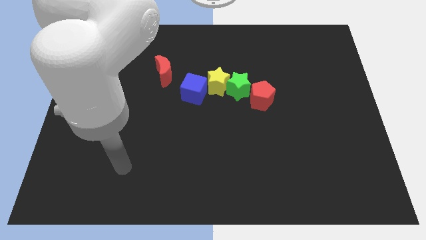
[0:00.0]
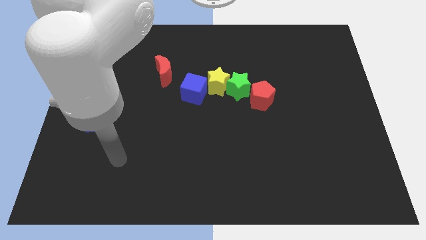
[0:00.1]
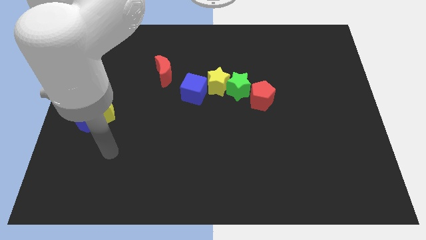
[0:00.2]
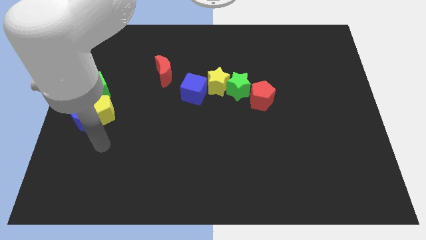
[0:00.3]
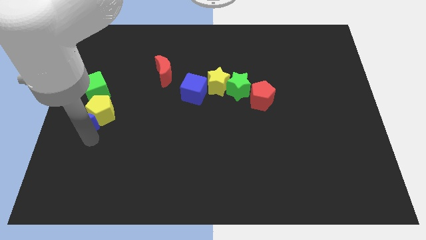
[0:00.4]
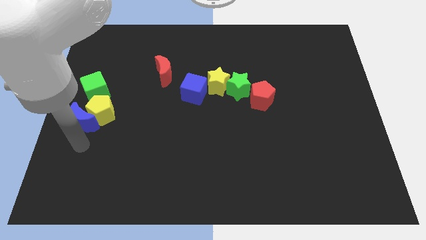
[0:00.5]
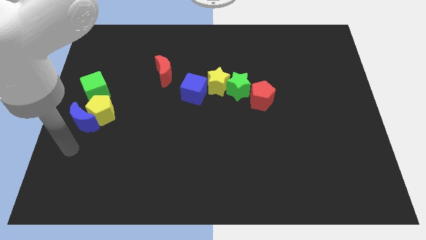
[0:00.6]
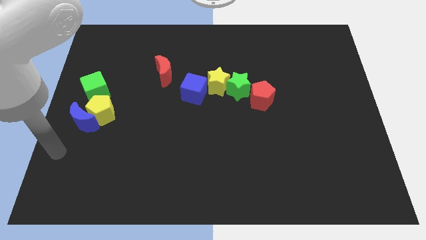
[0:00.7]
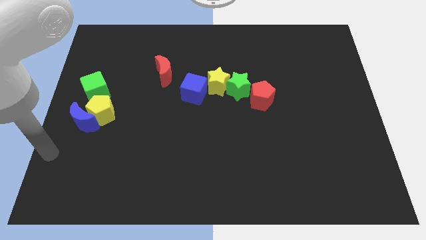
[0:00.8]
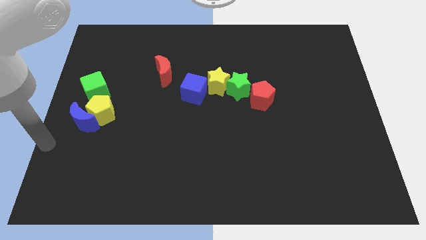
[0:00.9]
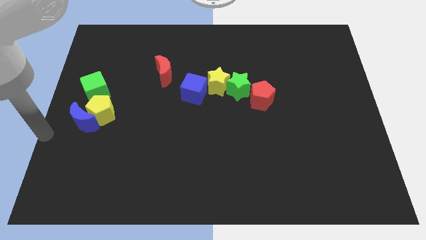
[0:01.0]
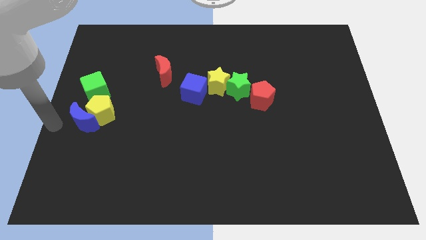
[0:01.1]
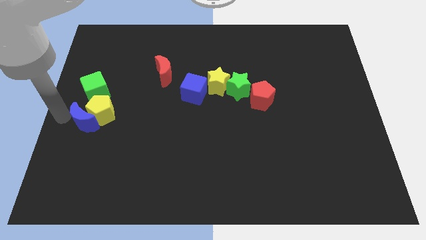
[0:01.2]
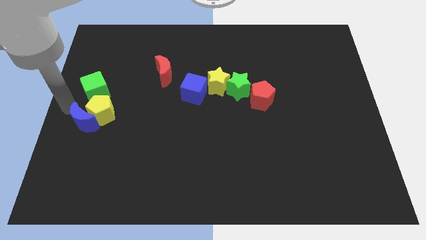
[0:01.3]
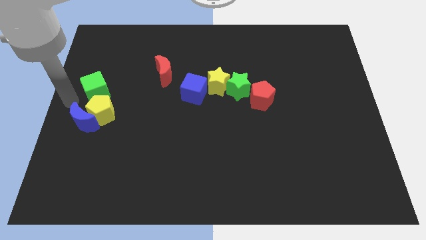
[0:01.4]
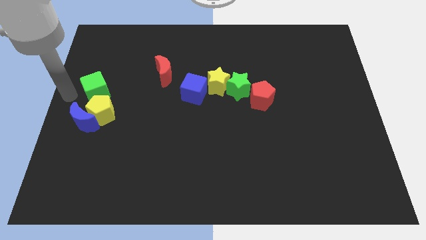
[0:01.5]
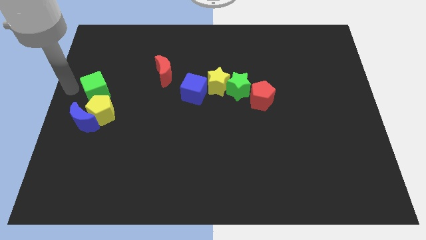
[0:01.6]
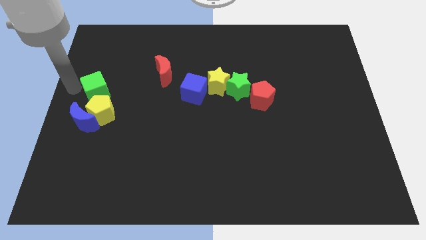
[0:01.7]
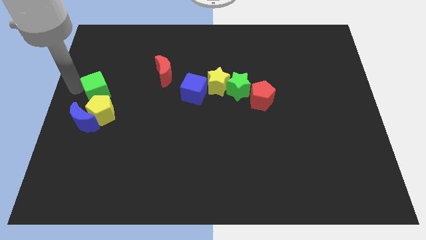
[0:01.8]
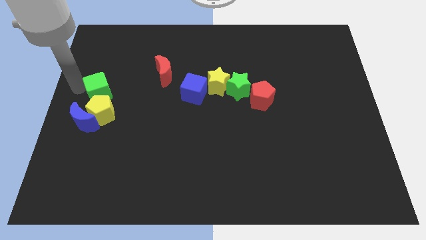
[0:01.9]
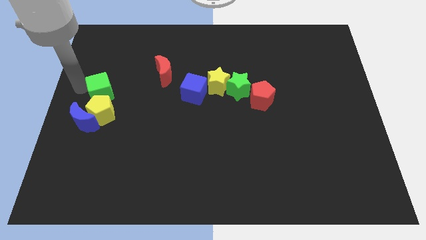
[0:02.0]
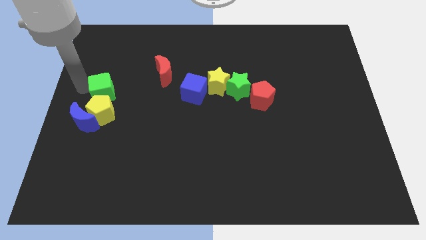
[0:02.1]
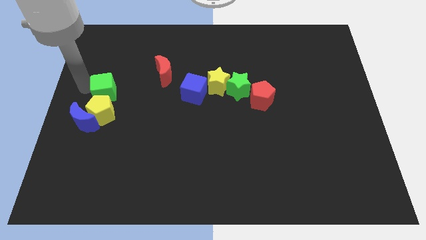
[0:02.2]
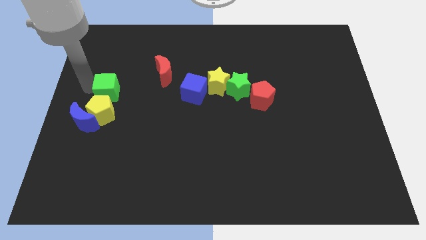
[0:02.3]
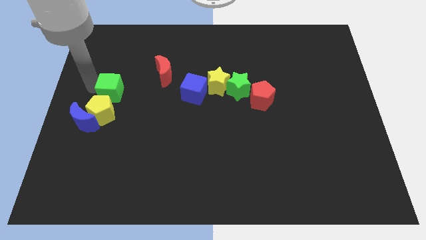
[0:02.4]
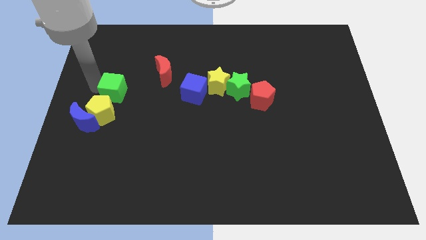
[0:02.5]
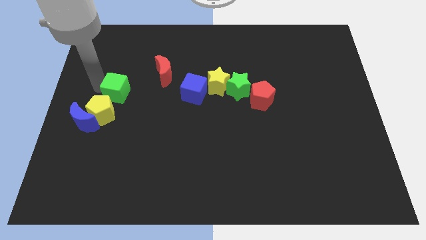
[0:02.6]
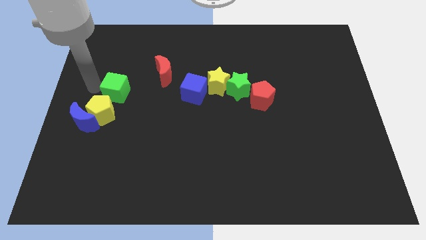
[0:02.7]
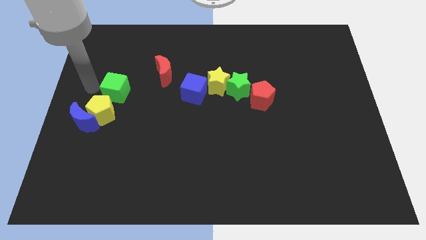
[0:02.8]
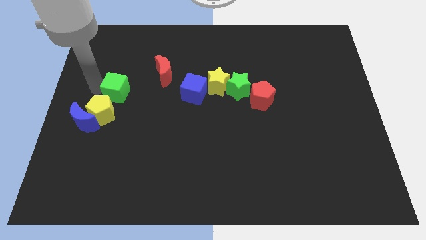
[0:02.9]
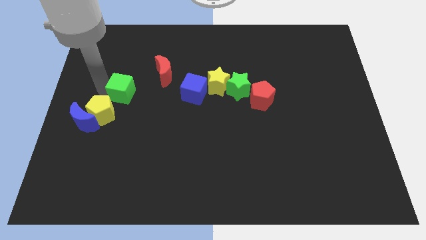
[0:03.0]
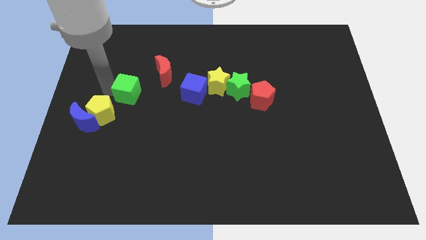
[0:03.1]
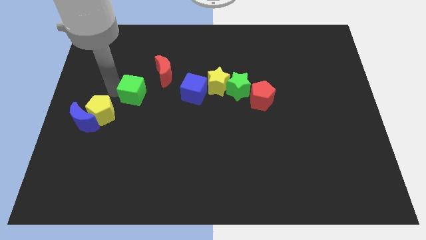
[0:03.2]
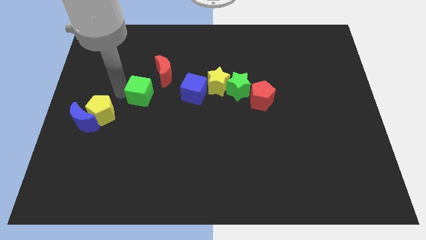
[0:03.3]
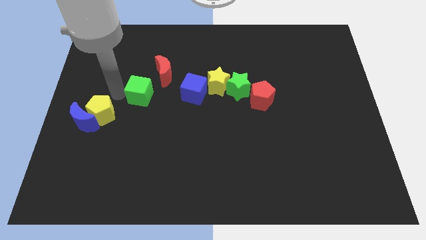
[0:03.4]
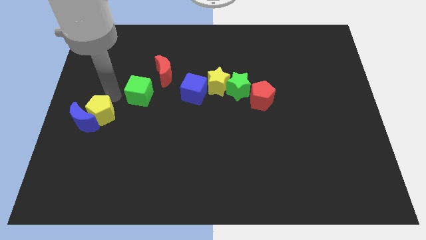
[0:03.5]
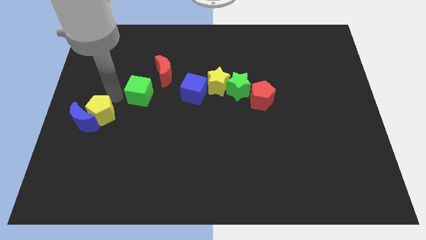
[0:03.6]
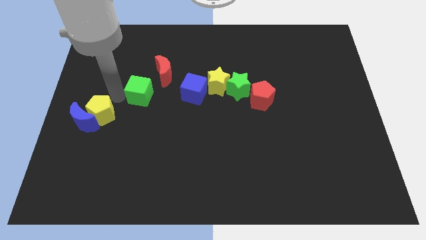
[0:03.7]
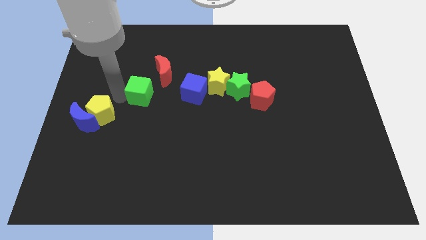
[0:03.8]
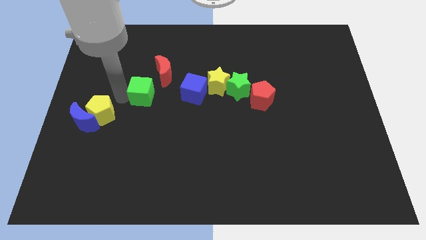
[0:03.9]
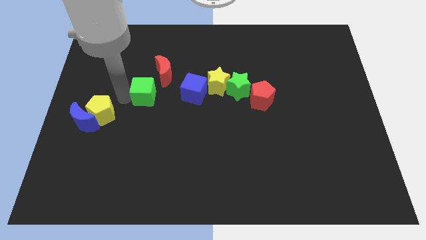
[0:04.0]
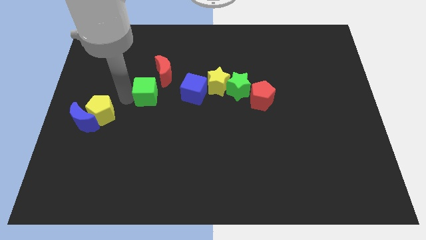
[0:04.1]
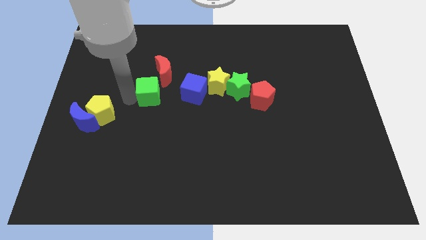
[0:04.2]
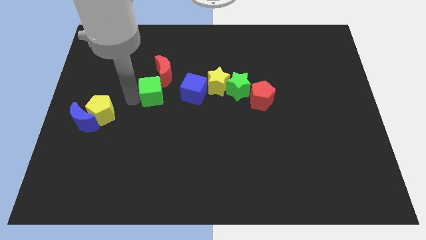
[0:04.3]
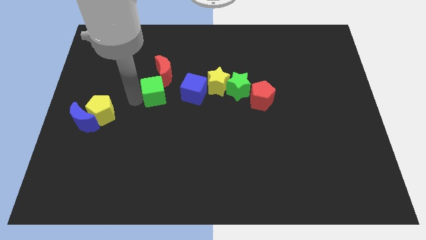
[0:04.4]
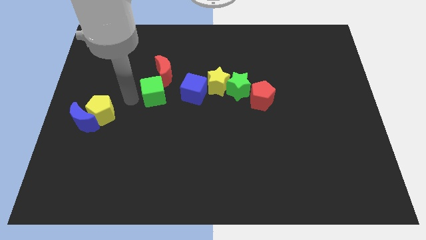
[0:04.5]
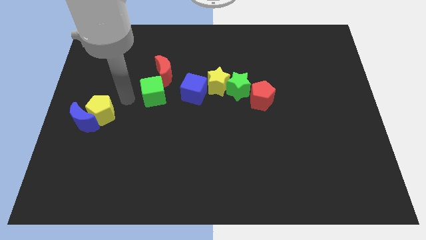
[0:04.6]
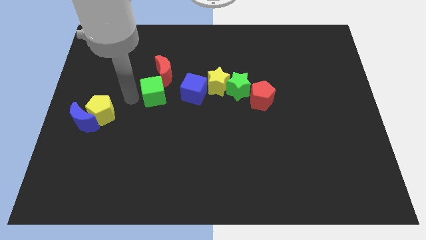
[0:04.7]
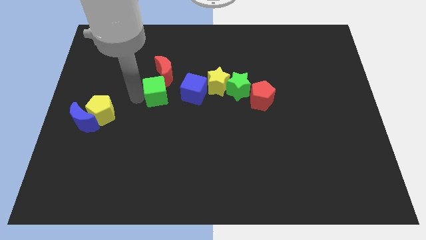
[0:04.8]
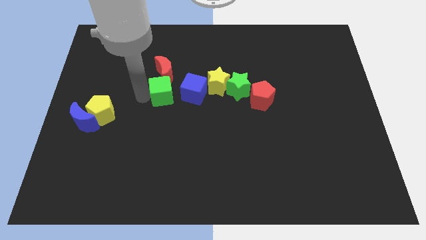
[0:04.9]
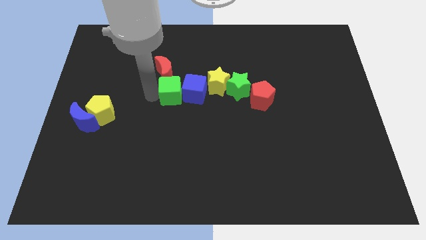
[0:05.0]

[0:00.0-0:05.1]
put the green cube close to the blue cube

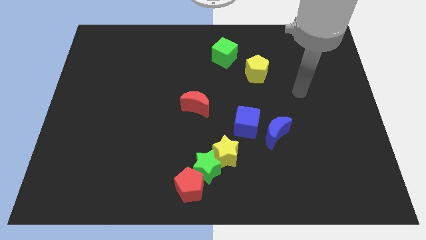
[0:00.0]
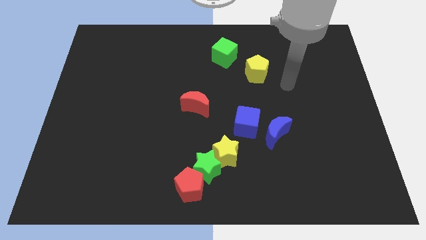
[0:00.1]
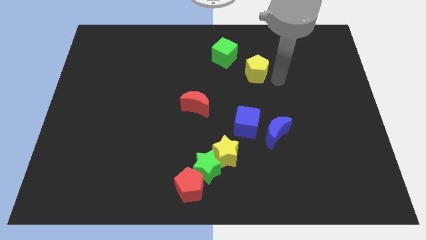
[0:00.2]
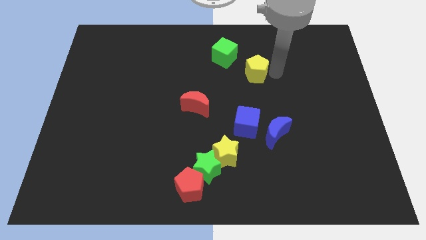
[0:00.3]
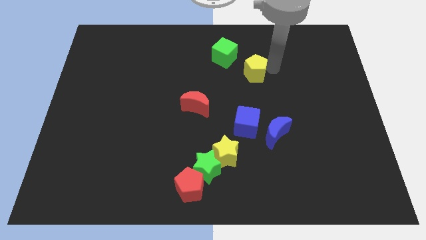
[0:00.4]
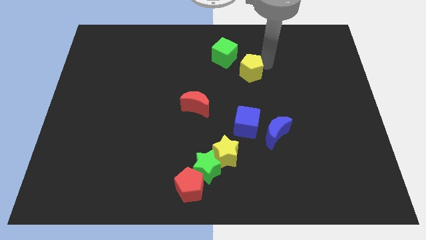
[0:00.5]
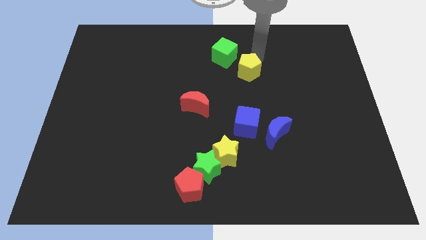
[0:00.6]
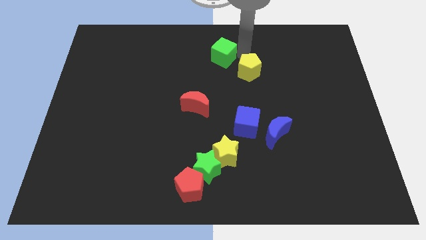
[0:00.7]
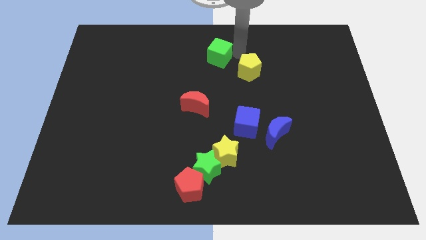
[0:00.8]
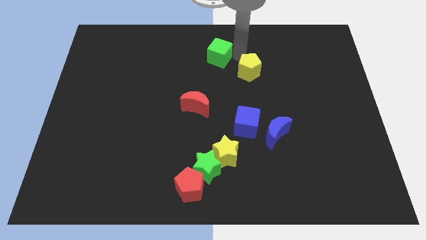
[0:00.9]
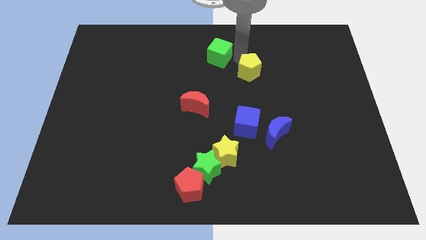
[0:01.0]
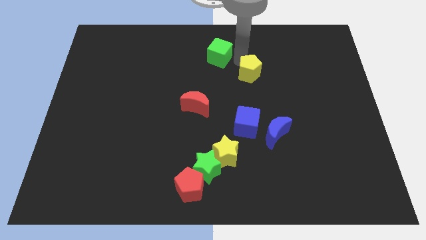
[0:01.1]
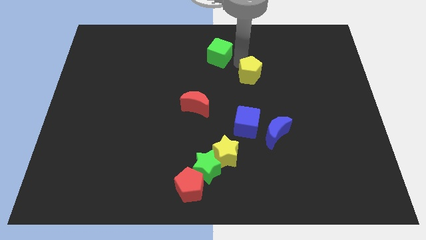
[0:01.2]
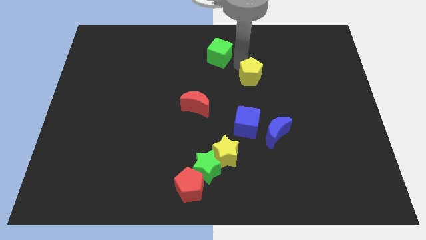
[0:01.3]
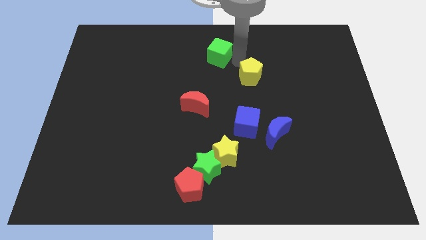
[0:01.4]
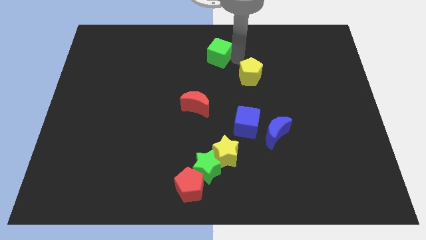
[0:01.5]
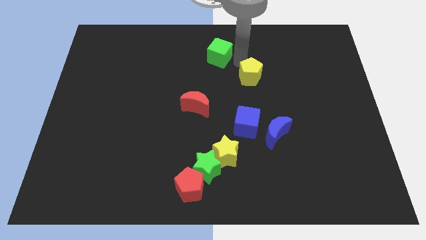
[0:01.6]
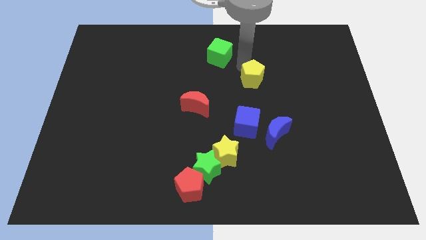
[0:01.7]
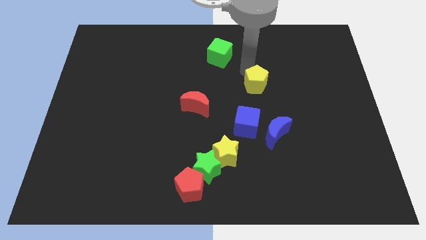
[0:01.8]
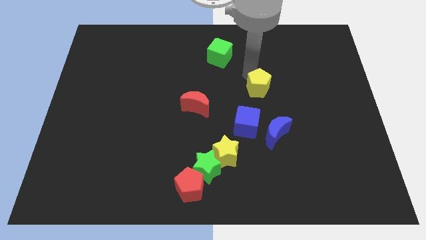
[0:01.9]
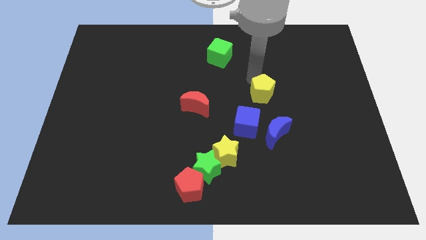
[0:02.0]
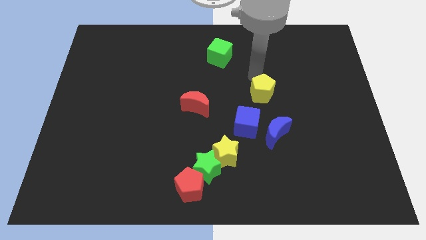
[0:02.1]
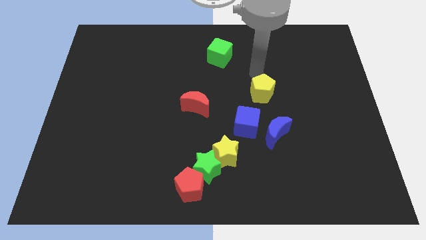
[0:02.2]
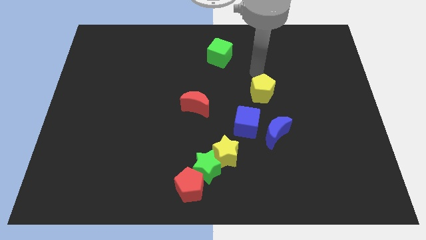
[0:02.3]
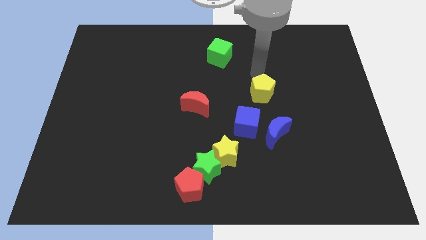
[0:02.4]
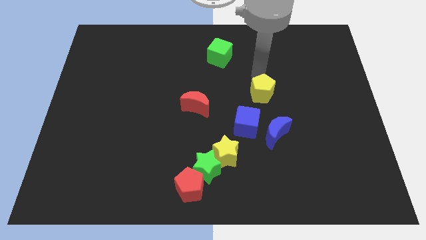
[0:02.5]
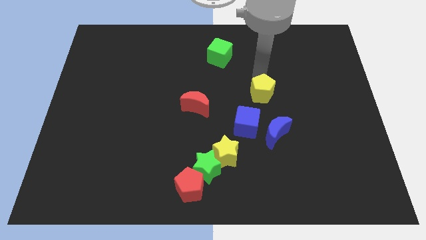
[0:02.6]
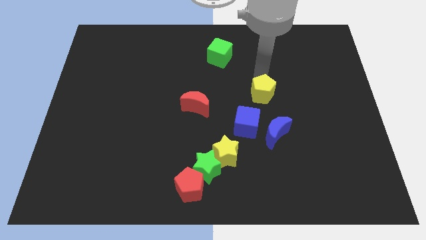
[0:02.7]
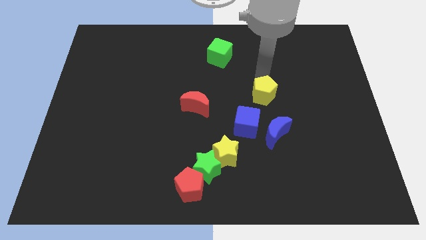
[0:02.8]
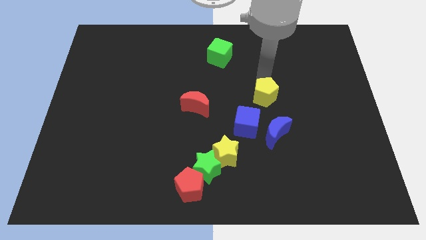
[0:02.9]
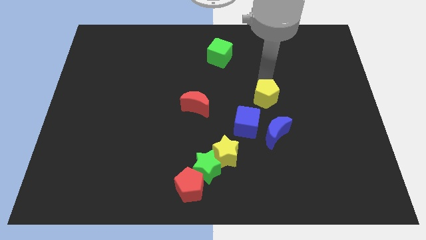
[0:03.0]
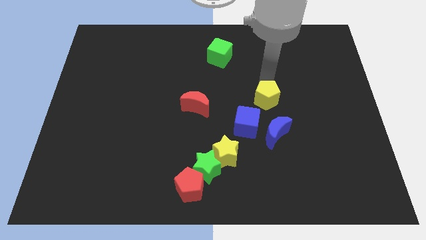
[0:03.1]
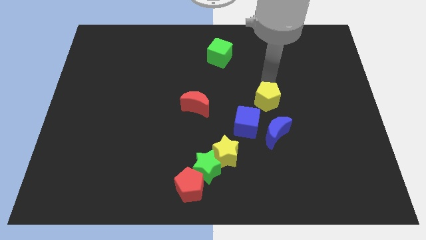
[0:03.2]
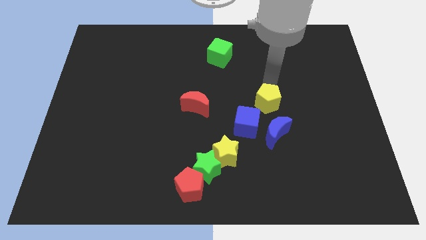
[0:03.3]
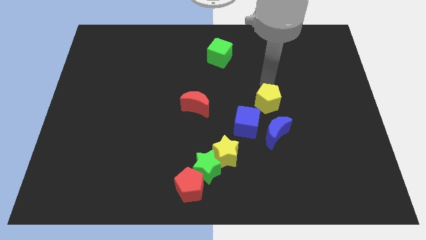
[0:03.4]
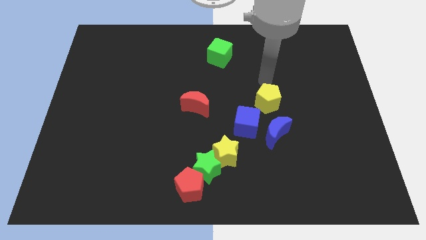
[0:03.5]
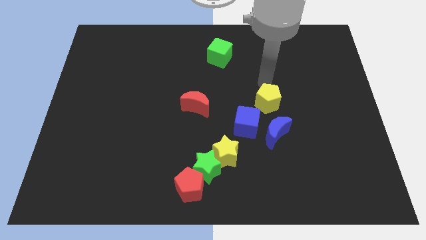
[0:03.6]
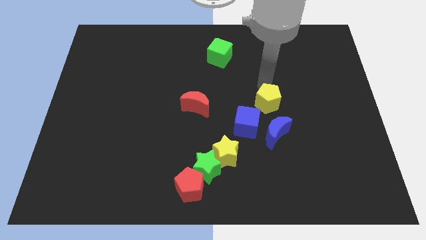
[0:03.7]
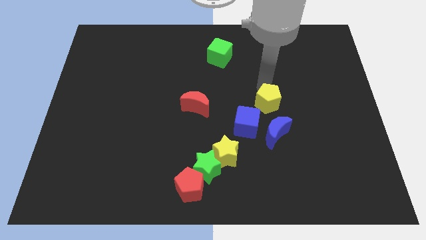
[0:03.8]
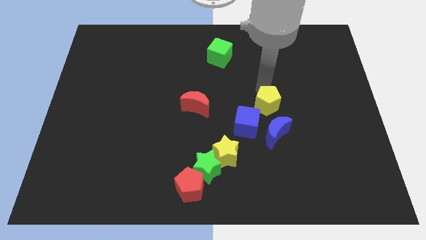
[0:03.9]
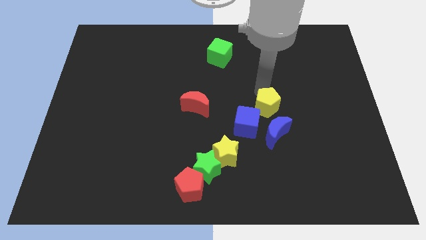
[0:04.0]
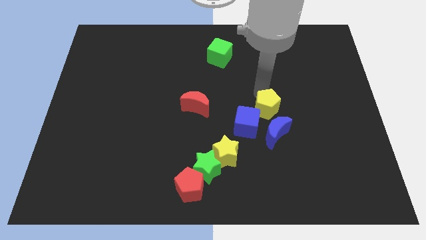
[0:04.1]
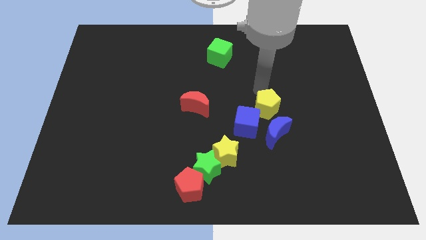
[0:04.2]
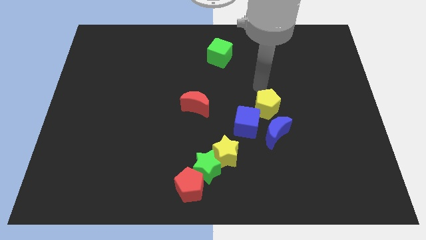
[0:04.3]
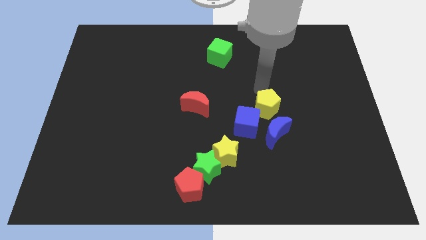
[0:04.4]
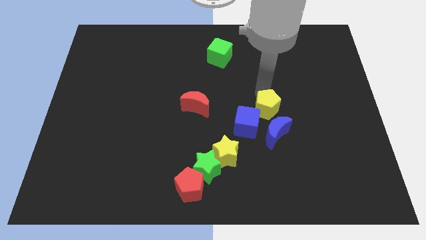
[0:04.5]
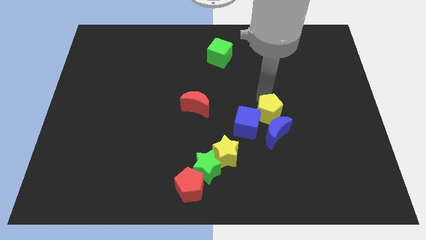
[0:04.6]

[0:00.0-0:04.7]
push the yellow pentagon close to the blue moon
